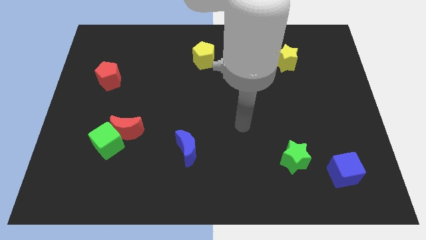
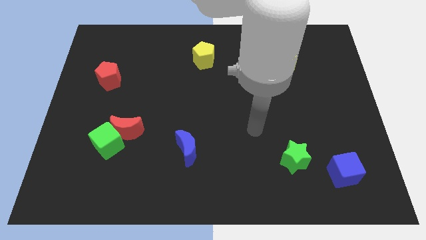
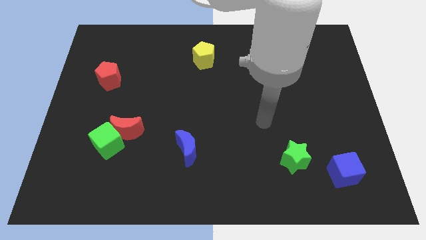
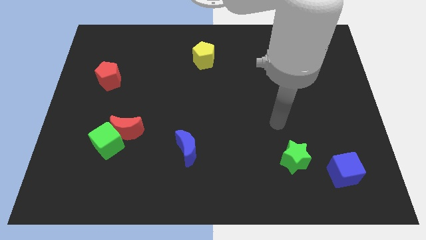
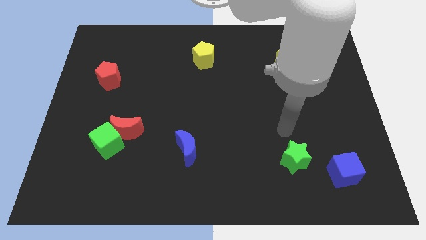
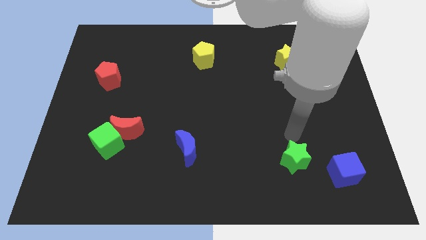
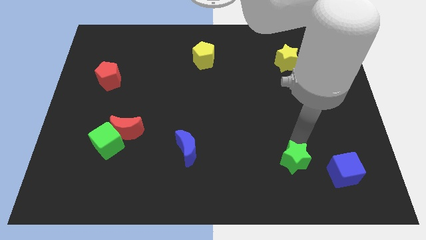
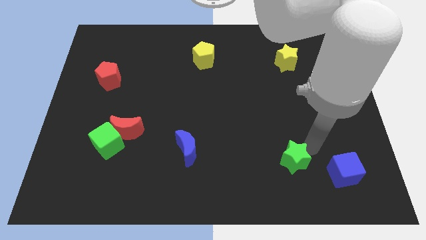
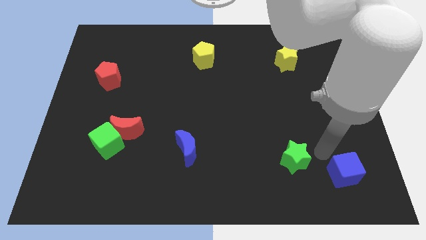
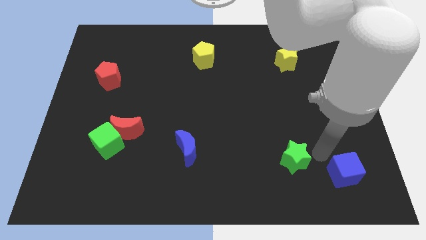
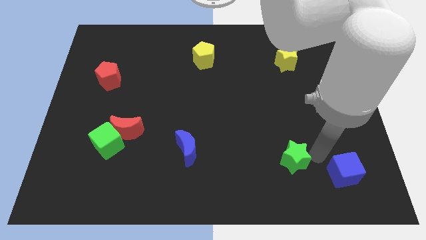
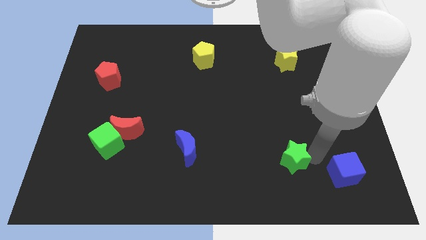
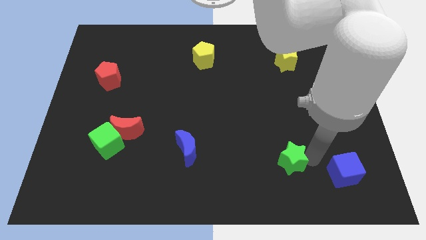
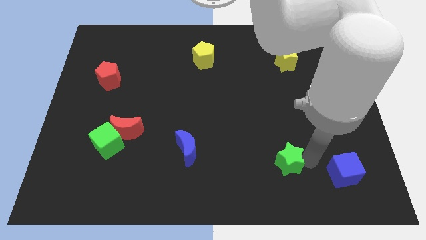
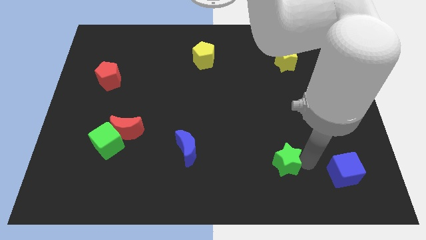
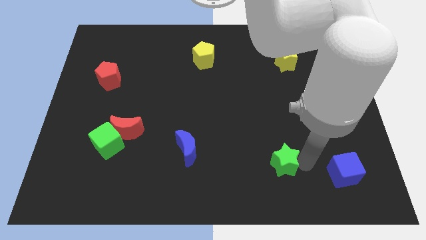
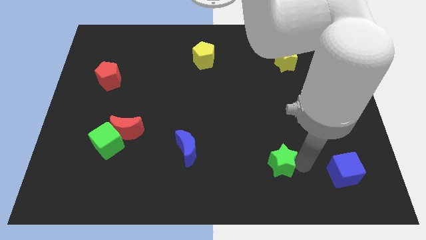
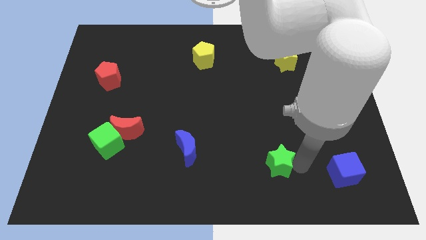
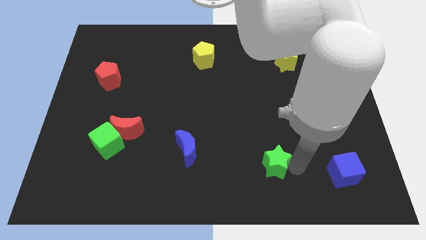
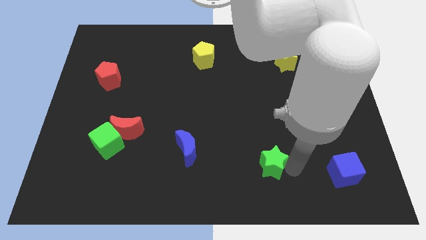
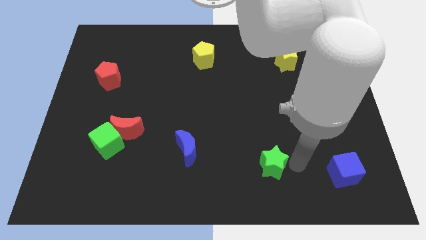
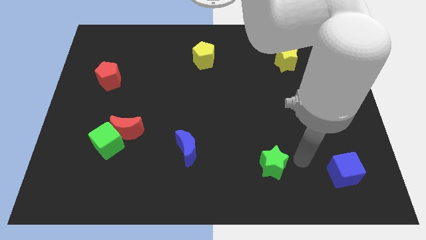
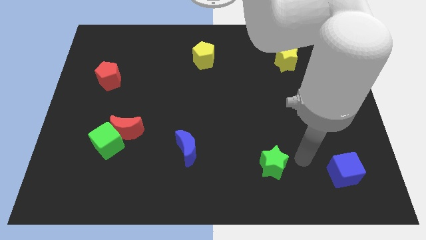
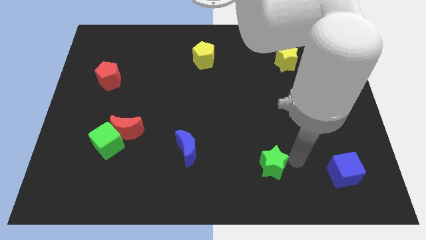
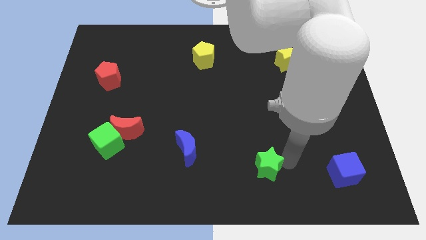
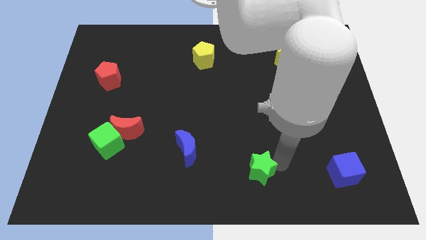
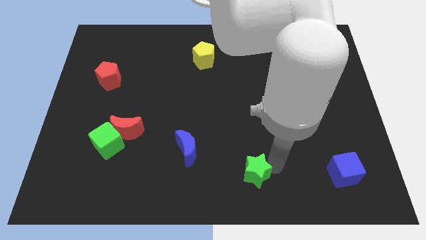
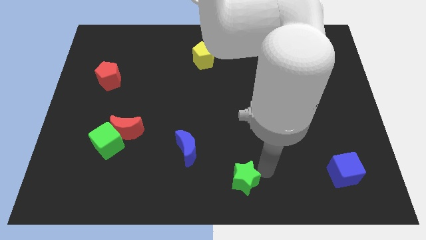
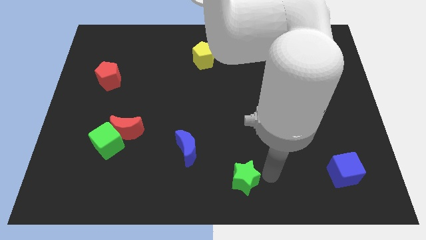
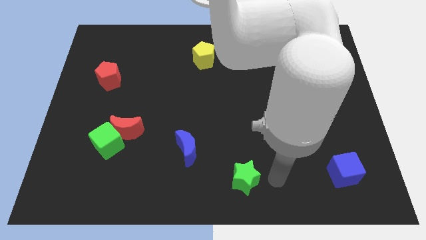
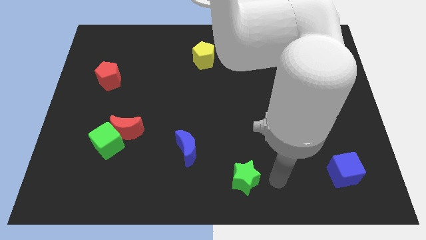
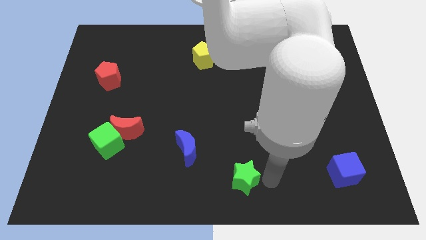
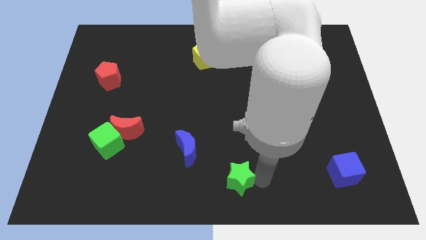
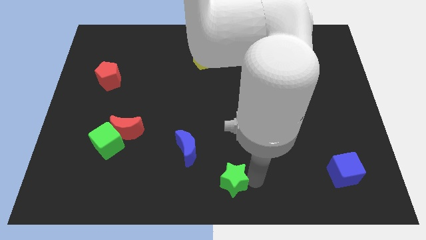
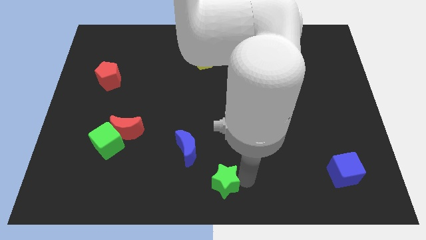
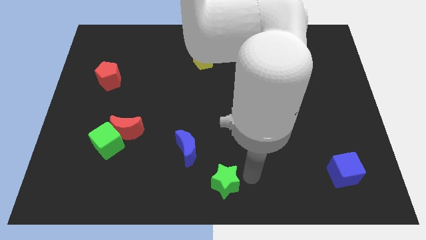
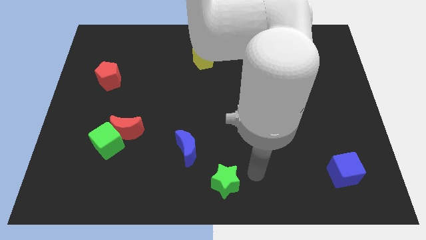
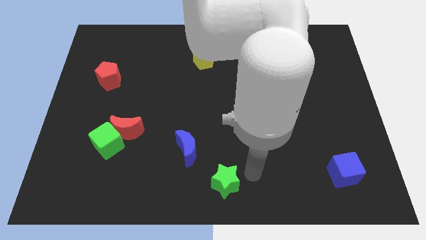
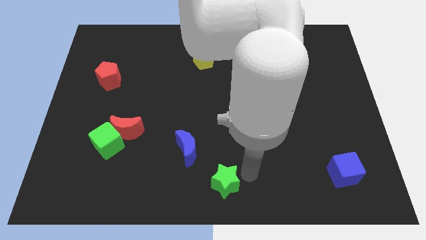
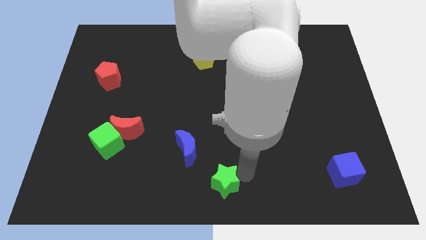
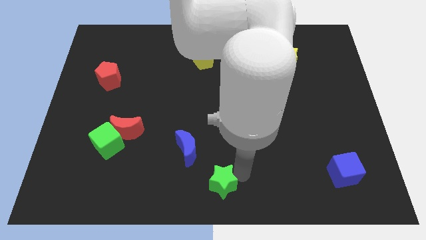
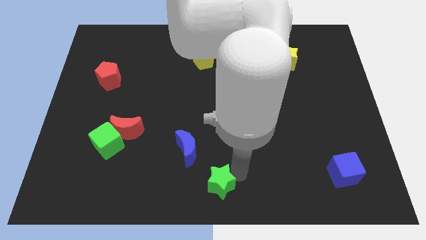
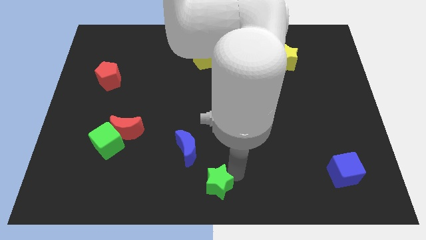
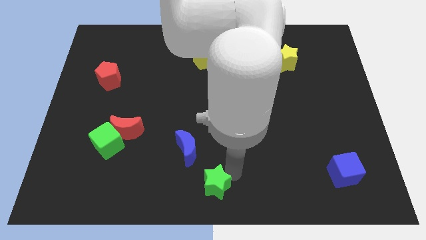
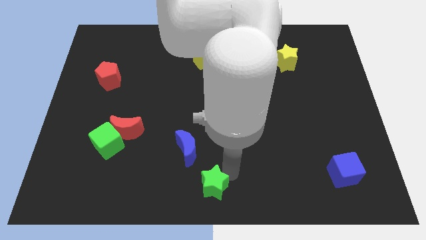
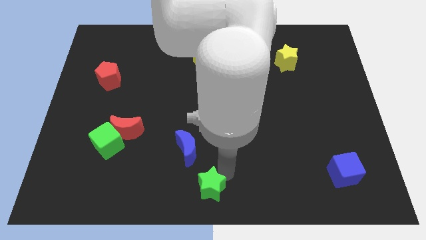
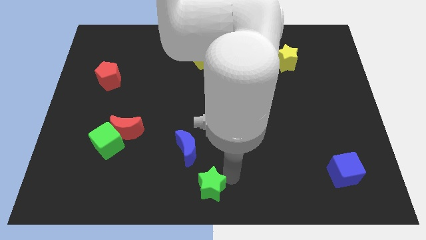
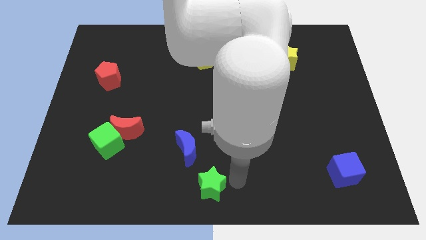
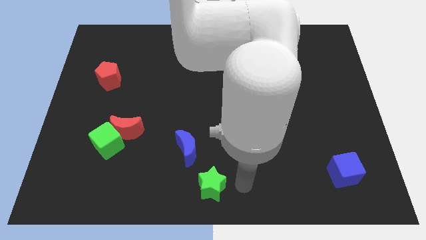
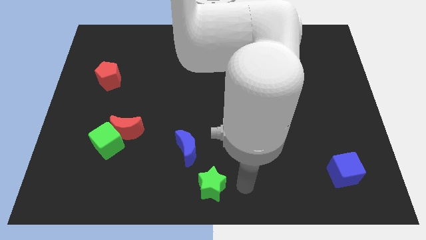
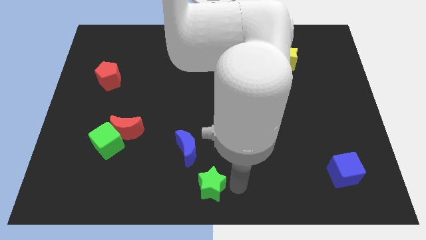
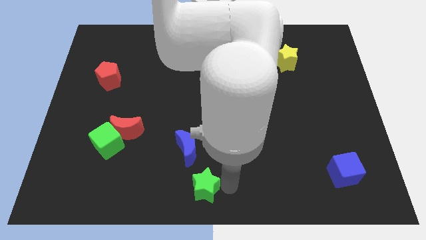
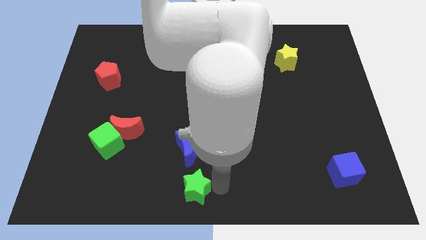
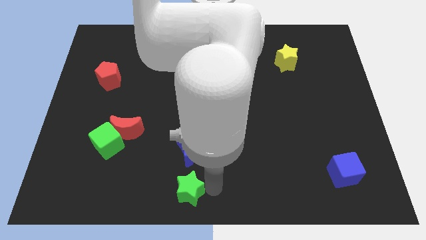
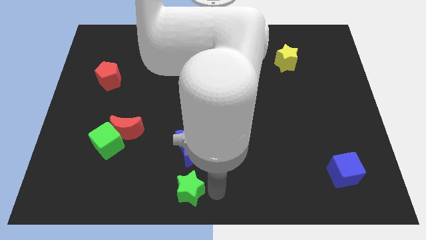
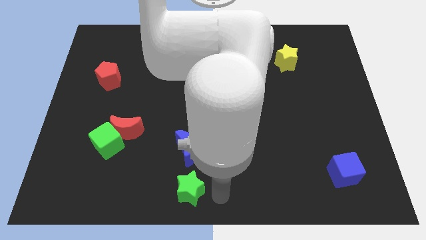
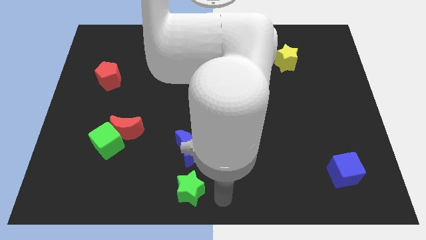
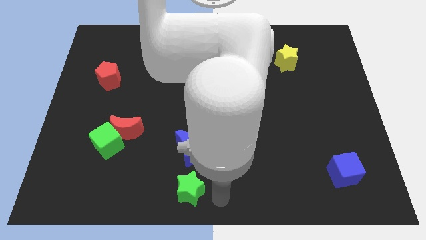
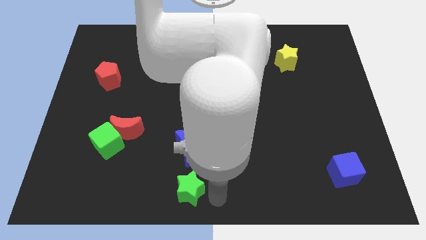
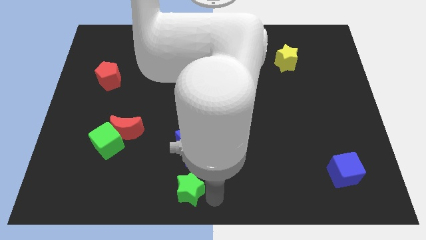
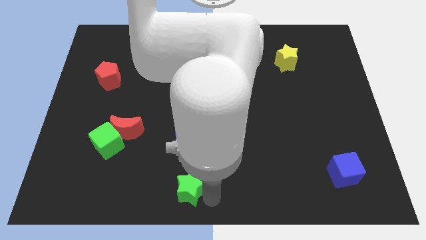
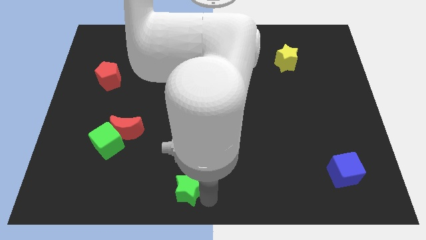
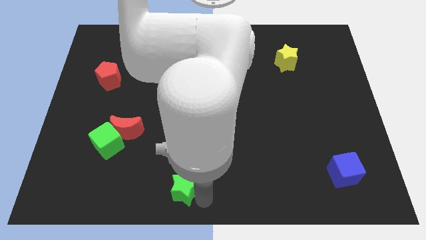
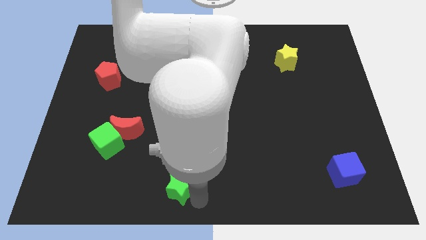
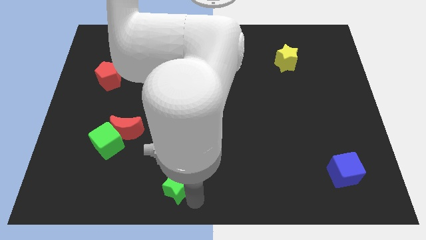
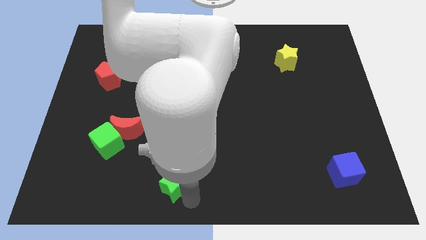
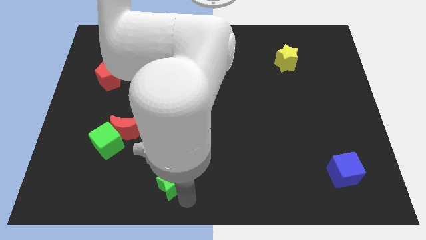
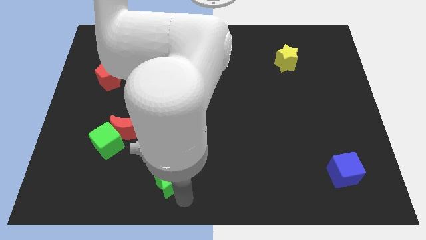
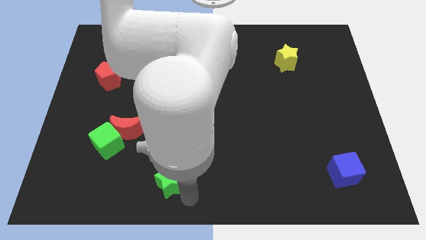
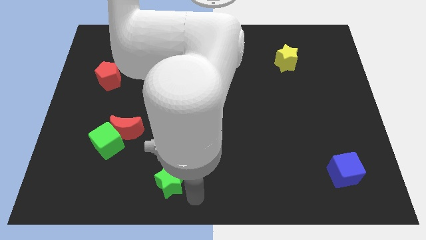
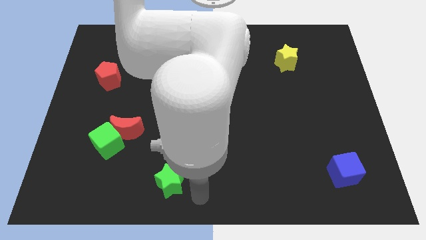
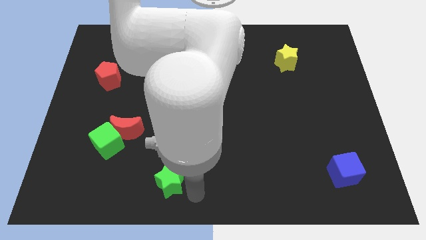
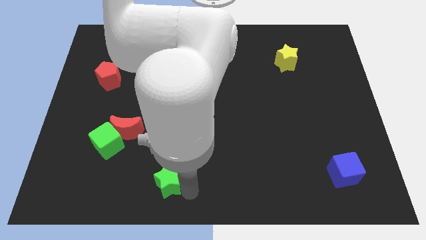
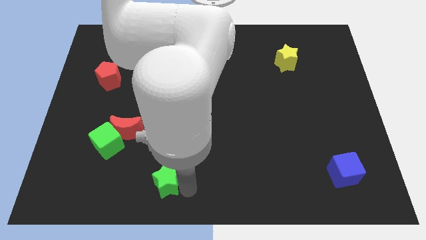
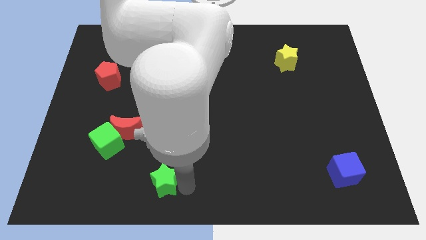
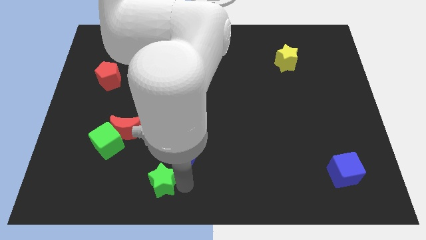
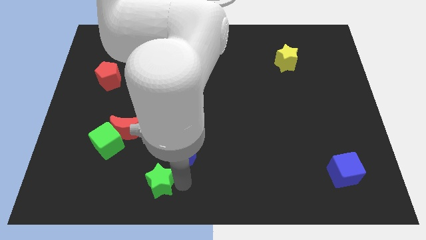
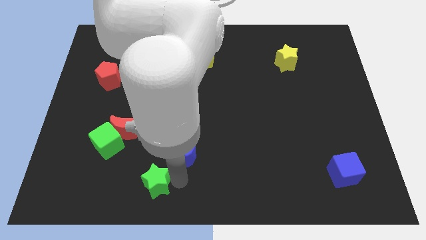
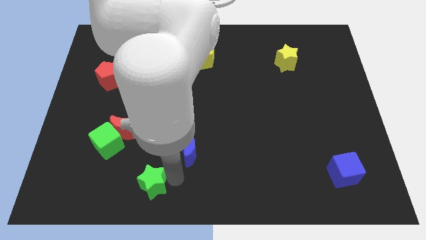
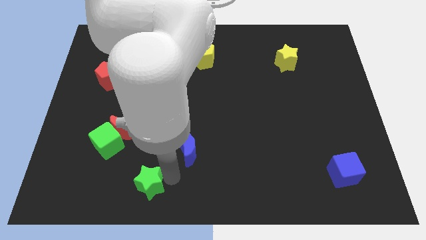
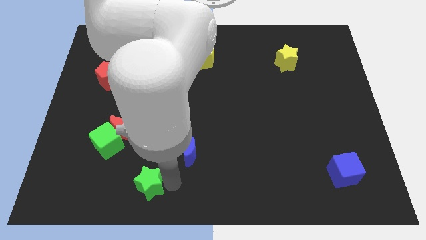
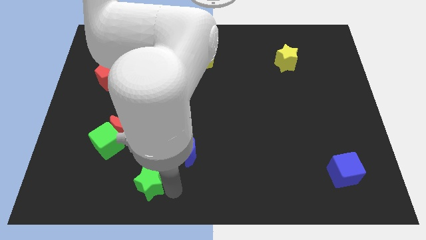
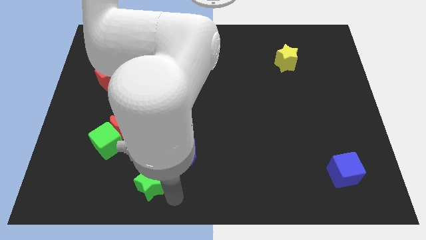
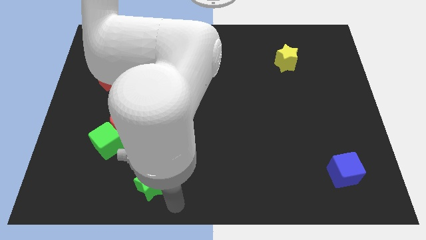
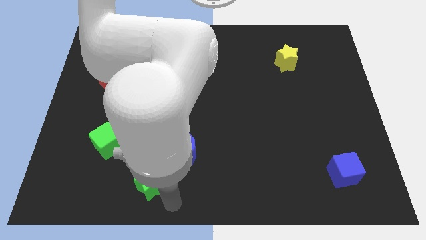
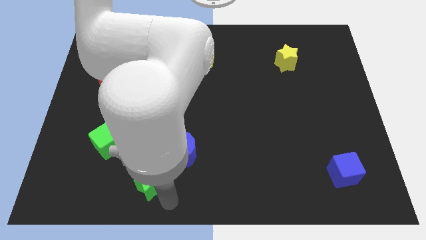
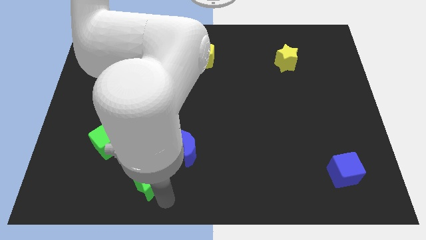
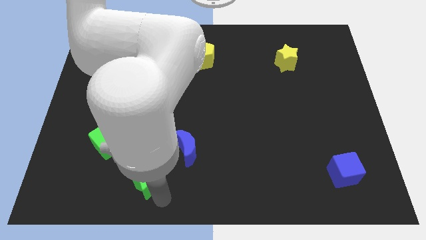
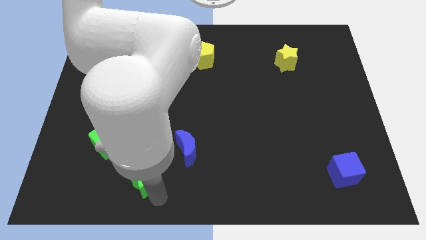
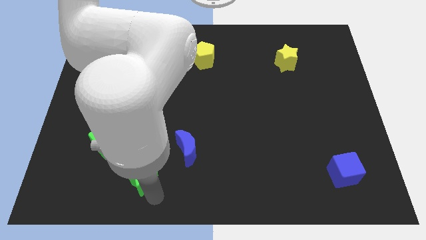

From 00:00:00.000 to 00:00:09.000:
put the green star to the bottom right of the green cube
